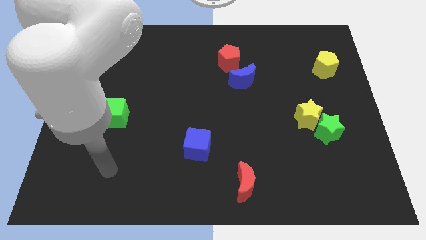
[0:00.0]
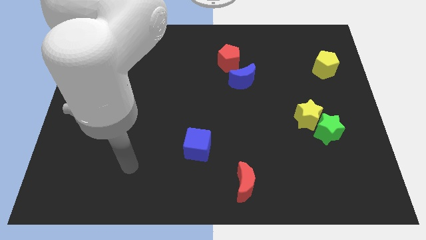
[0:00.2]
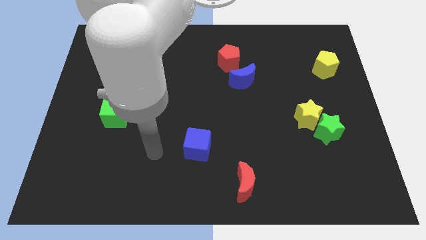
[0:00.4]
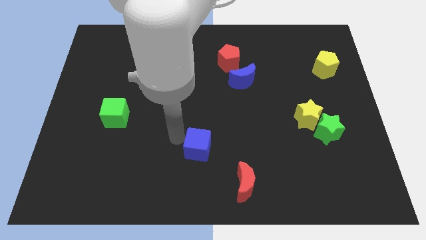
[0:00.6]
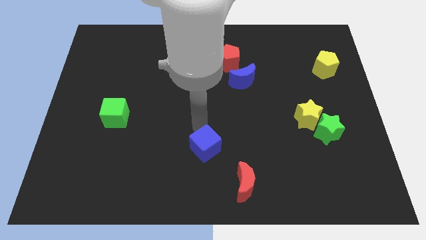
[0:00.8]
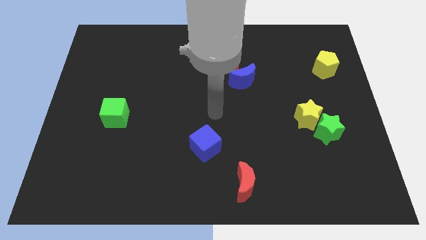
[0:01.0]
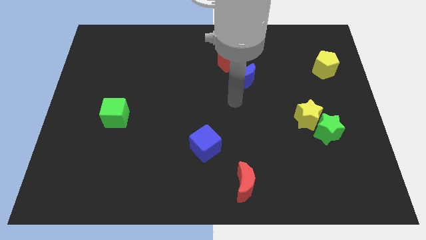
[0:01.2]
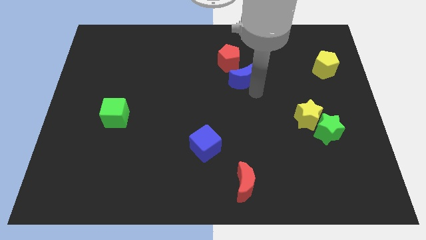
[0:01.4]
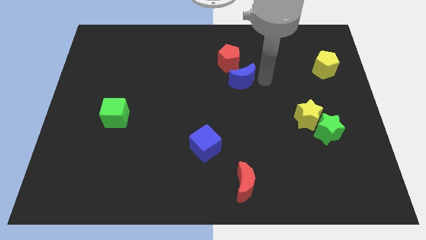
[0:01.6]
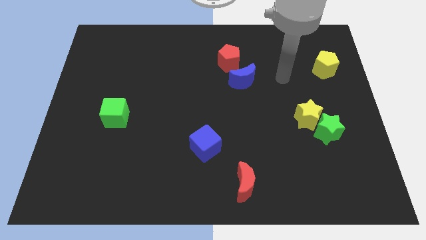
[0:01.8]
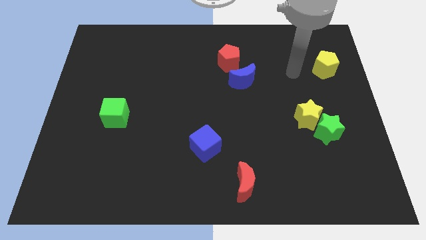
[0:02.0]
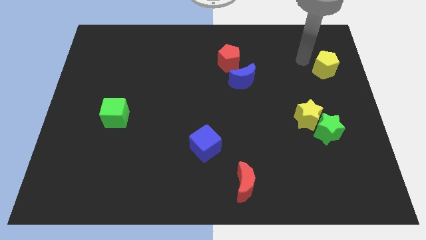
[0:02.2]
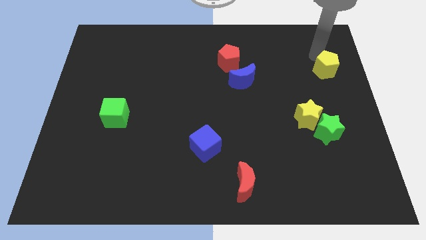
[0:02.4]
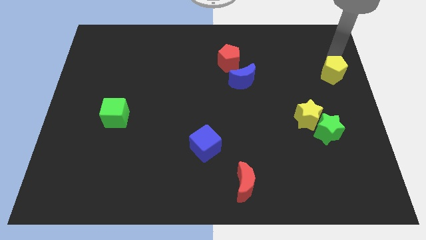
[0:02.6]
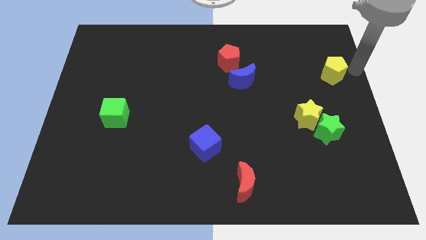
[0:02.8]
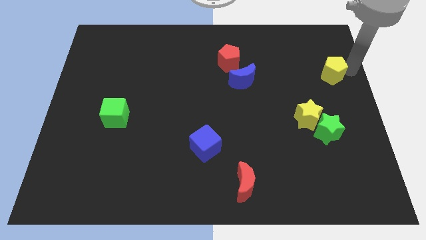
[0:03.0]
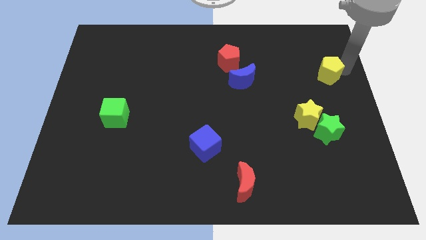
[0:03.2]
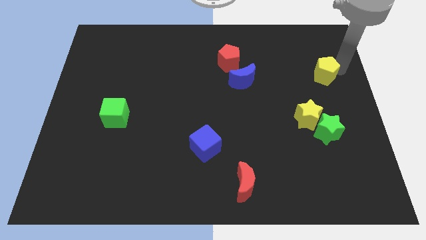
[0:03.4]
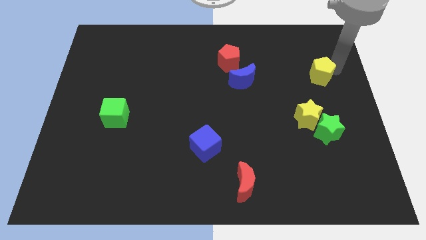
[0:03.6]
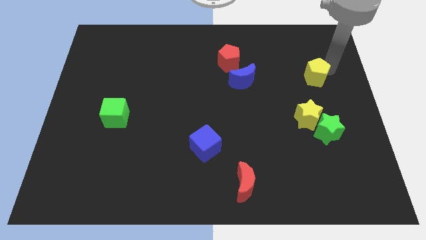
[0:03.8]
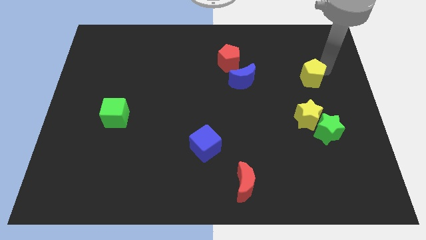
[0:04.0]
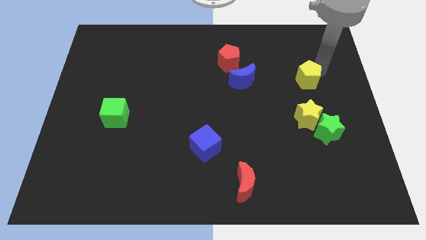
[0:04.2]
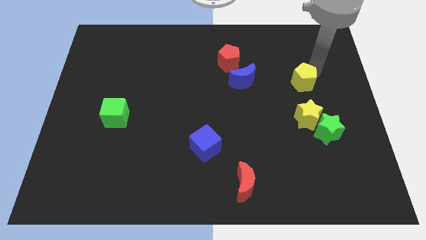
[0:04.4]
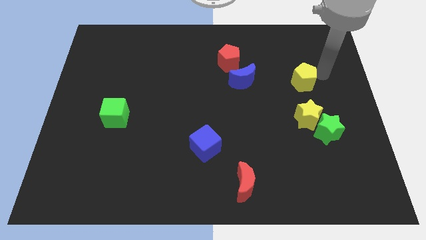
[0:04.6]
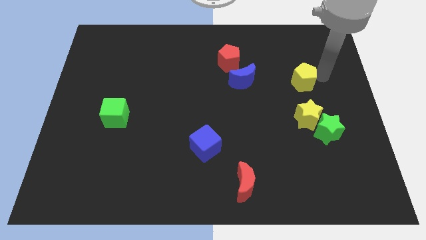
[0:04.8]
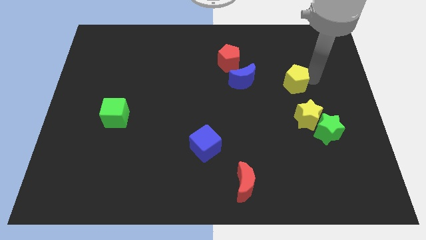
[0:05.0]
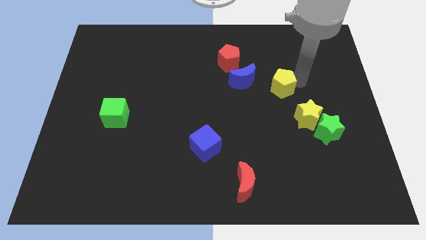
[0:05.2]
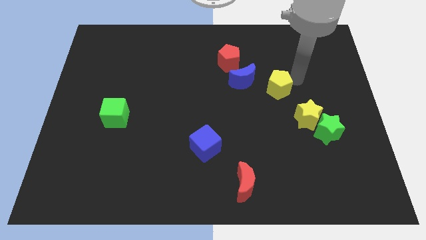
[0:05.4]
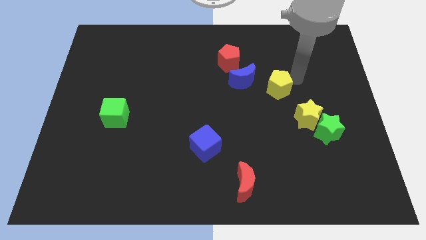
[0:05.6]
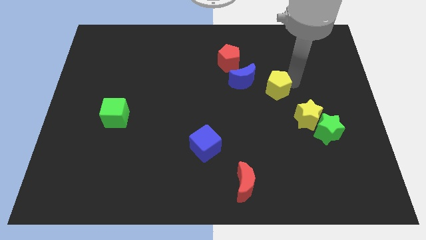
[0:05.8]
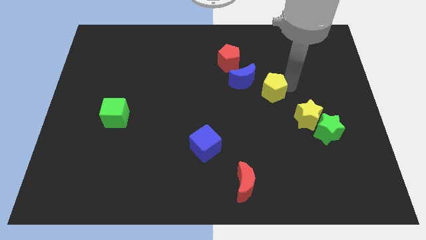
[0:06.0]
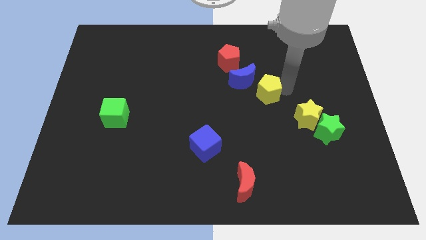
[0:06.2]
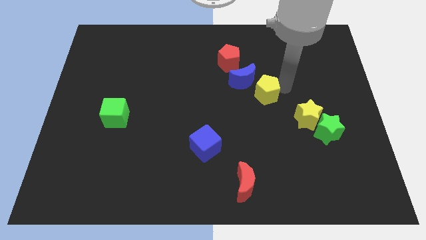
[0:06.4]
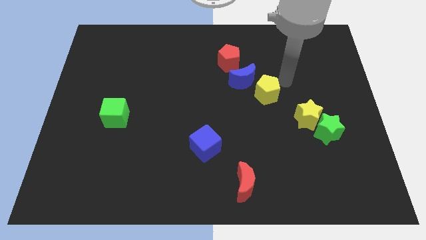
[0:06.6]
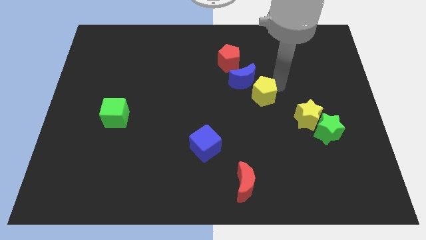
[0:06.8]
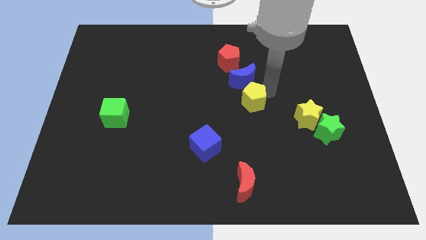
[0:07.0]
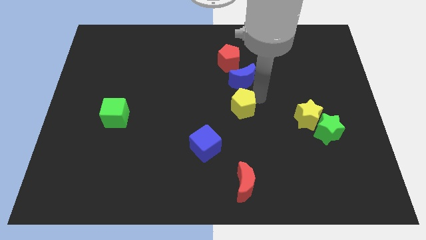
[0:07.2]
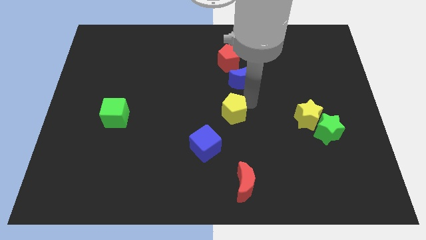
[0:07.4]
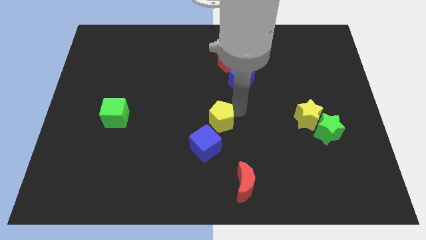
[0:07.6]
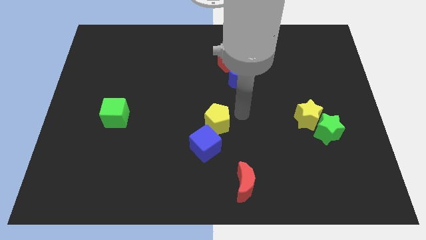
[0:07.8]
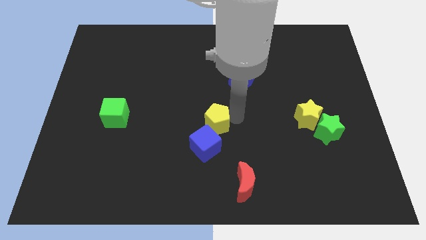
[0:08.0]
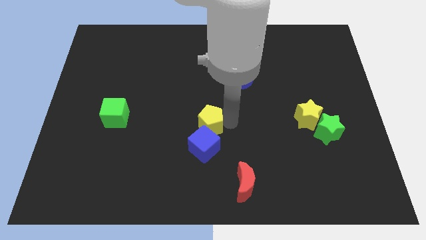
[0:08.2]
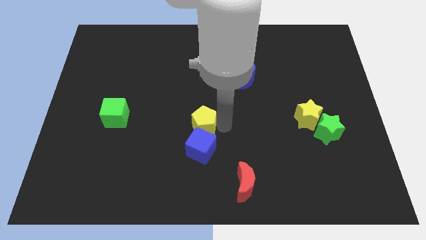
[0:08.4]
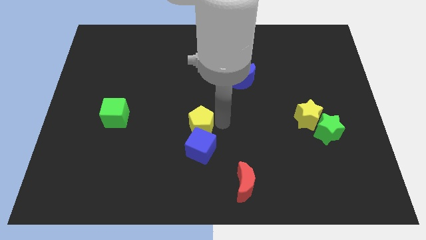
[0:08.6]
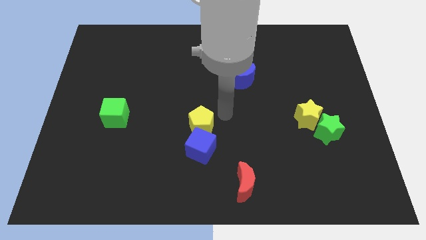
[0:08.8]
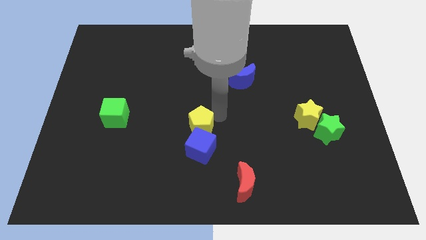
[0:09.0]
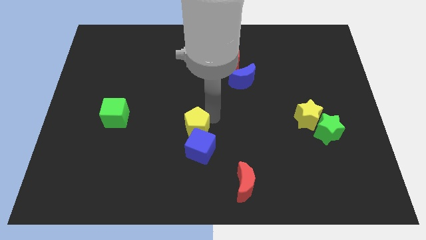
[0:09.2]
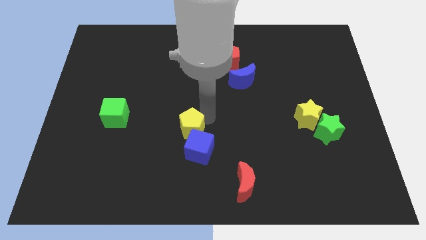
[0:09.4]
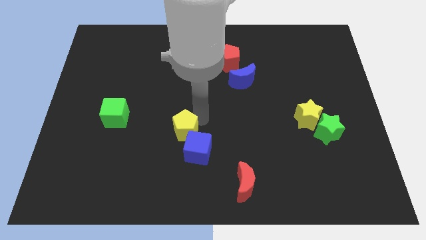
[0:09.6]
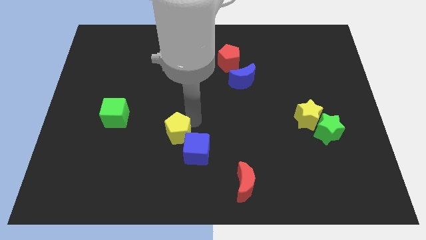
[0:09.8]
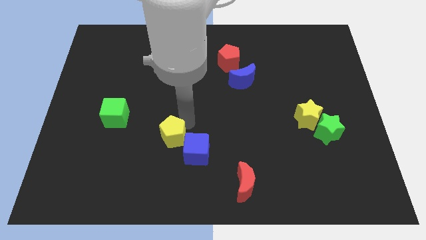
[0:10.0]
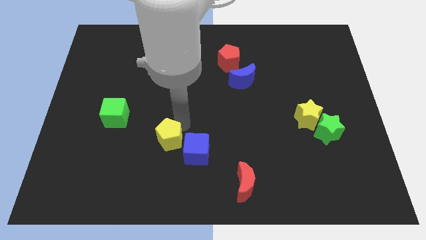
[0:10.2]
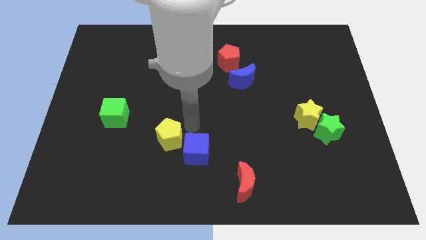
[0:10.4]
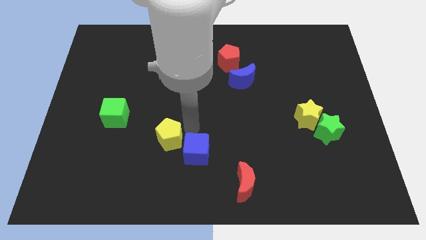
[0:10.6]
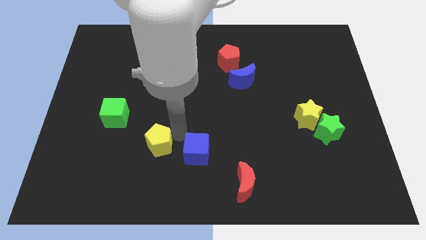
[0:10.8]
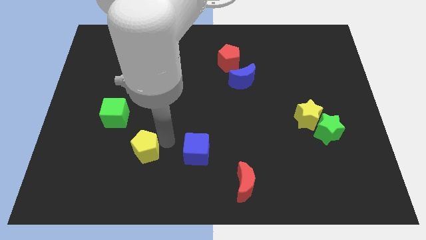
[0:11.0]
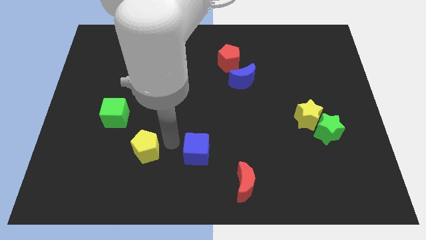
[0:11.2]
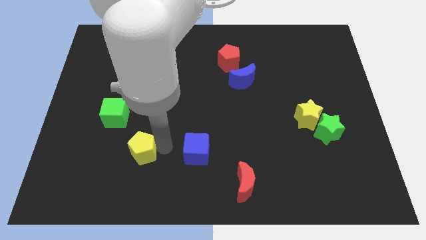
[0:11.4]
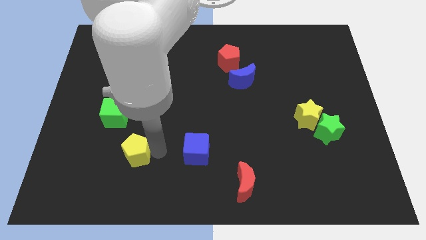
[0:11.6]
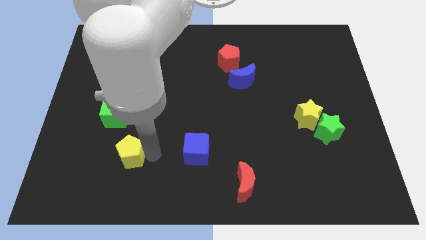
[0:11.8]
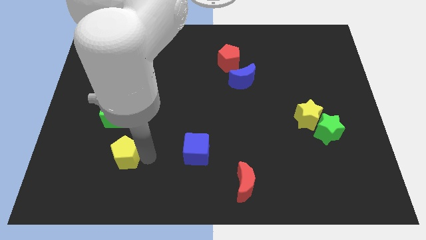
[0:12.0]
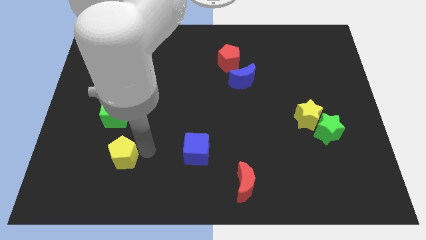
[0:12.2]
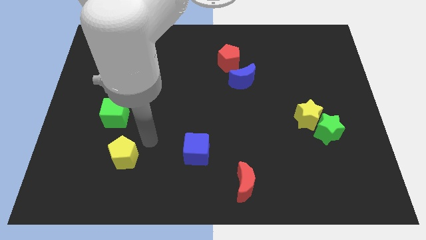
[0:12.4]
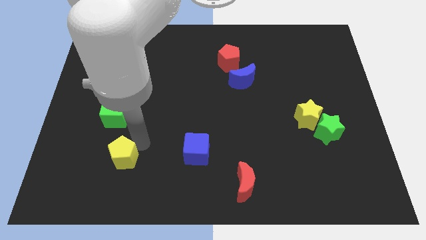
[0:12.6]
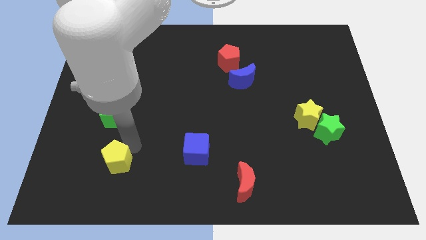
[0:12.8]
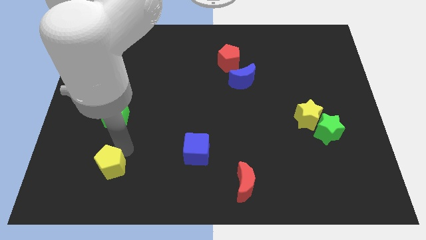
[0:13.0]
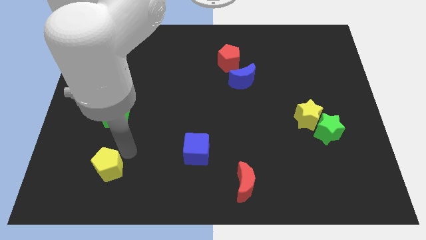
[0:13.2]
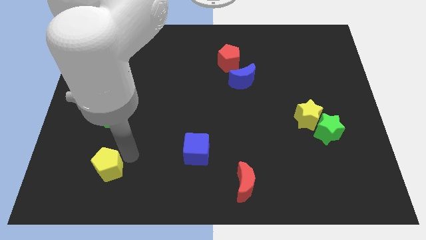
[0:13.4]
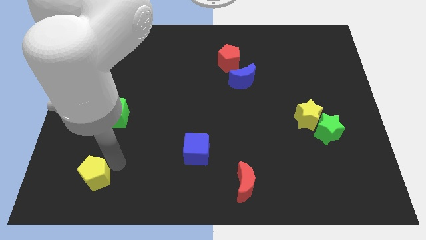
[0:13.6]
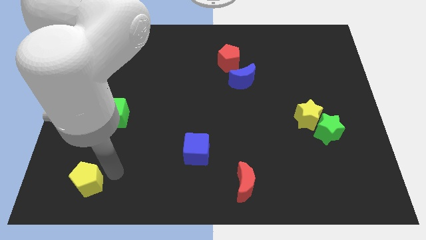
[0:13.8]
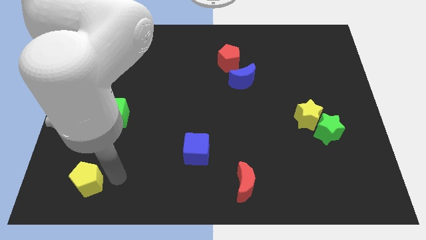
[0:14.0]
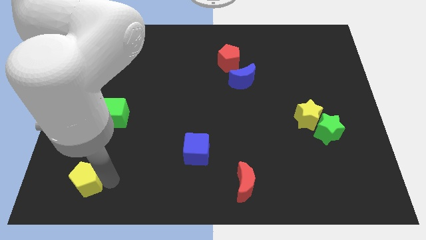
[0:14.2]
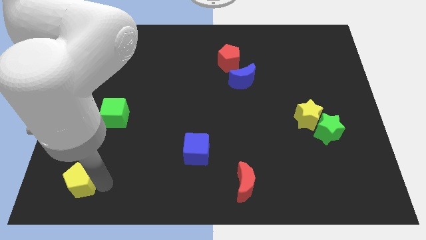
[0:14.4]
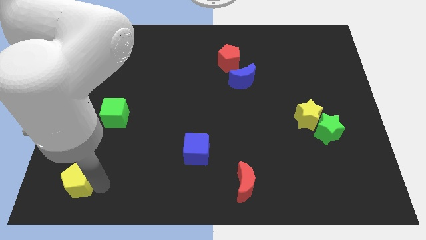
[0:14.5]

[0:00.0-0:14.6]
put the yellow pentagon to the bottom left corner

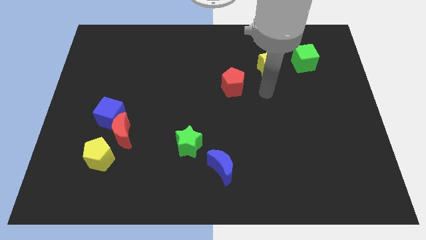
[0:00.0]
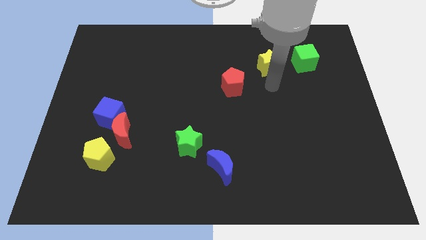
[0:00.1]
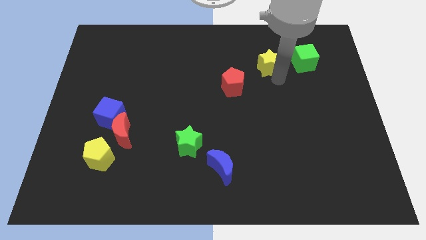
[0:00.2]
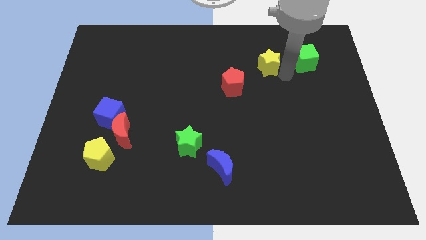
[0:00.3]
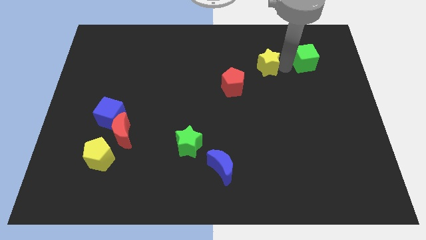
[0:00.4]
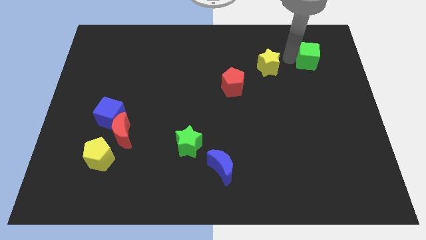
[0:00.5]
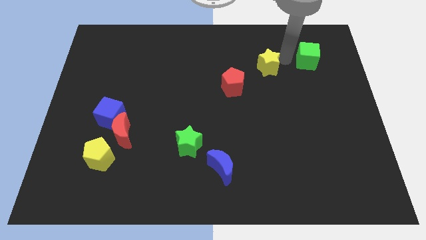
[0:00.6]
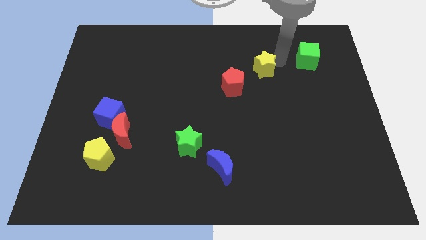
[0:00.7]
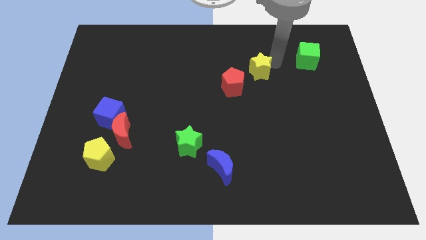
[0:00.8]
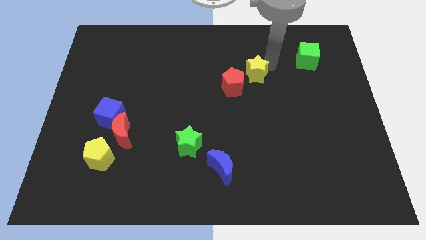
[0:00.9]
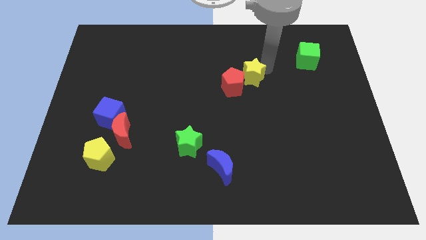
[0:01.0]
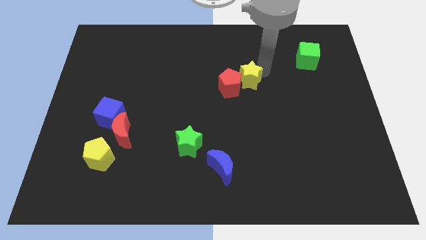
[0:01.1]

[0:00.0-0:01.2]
put the yellow star to the center of the board
